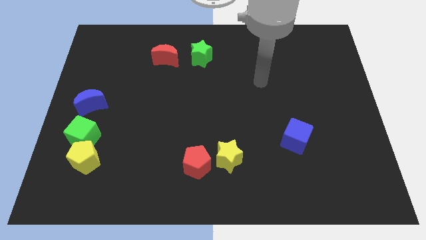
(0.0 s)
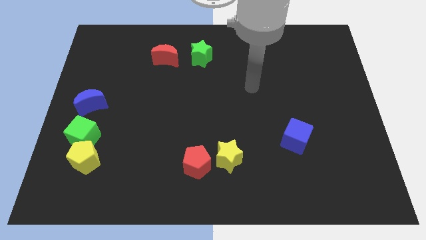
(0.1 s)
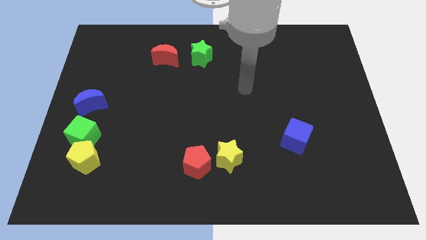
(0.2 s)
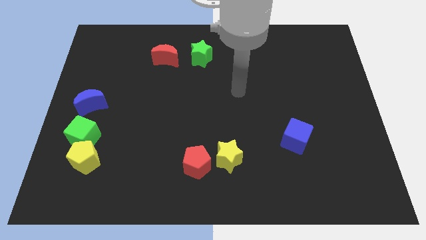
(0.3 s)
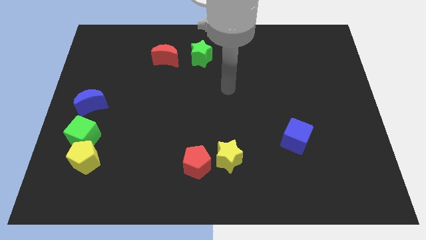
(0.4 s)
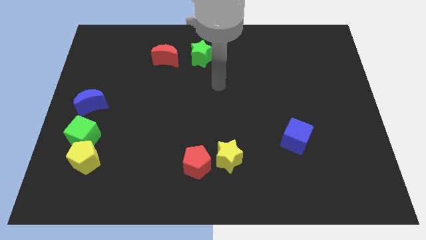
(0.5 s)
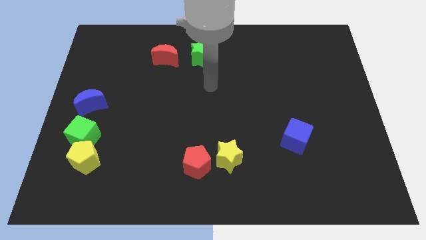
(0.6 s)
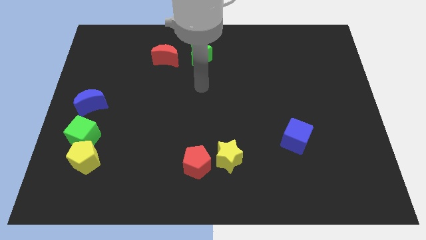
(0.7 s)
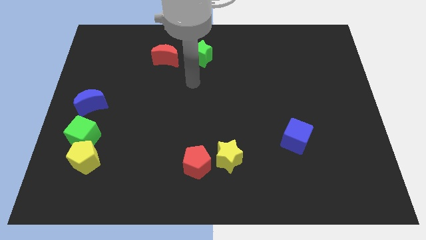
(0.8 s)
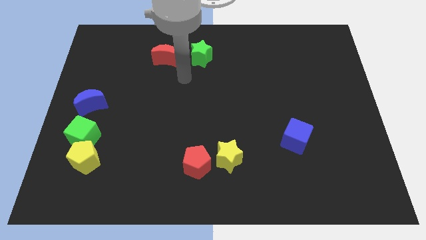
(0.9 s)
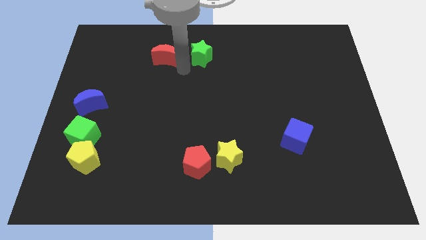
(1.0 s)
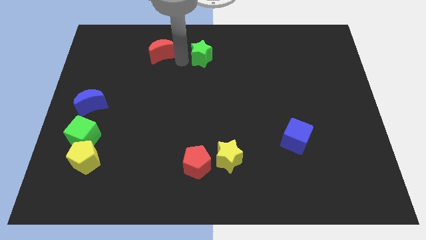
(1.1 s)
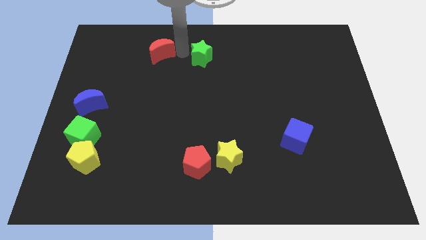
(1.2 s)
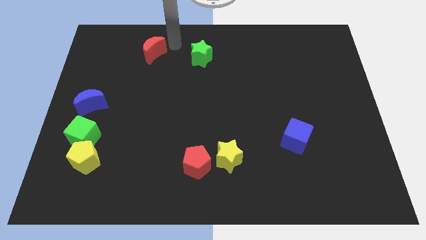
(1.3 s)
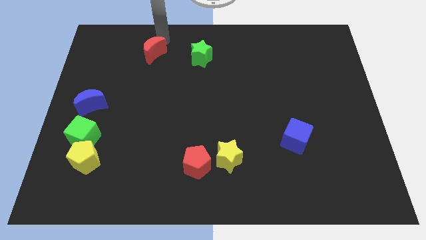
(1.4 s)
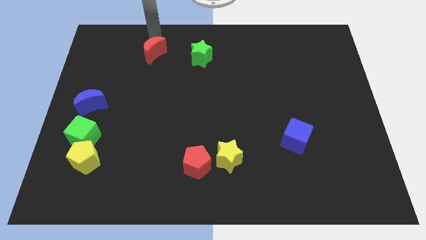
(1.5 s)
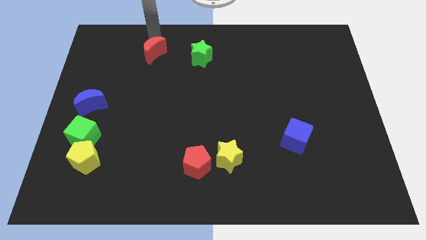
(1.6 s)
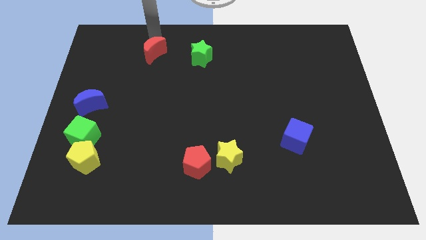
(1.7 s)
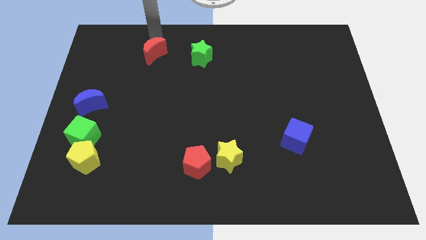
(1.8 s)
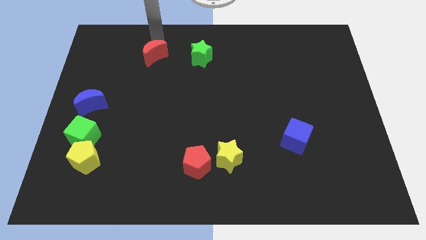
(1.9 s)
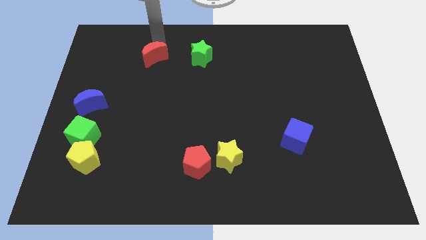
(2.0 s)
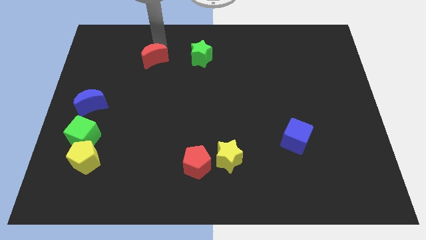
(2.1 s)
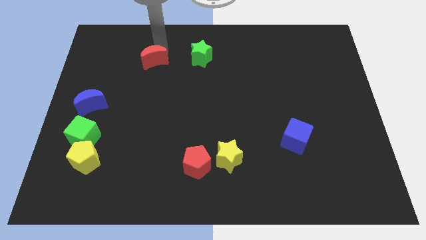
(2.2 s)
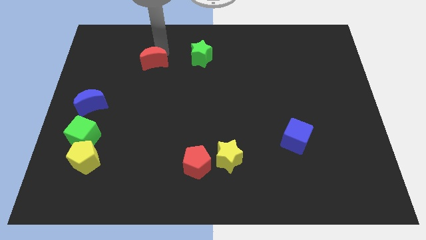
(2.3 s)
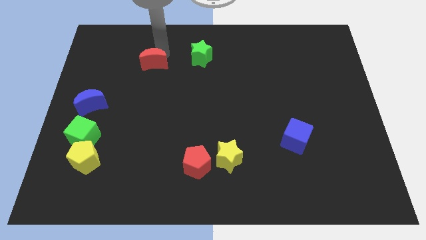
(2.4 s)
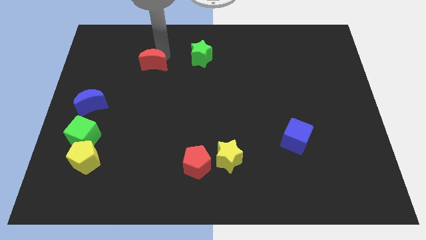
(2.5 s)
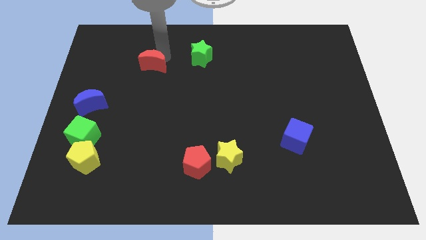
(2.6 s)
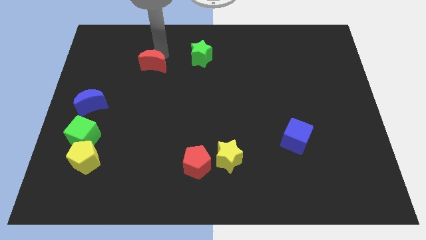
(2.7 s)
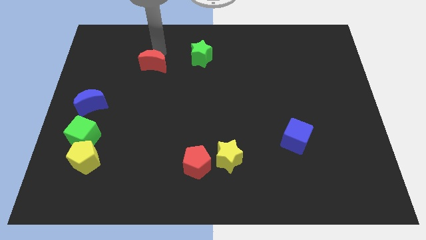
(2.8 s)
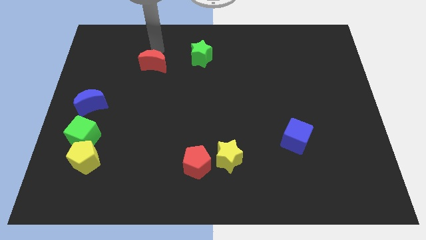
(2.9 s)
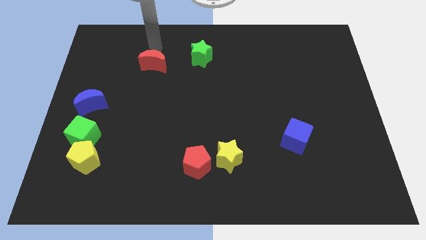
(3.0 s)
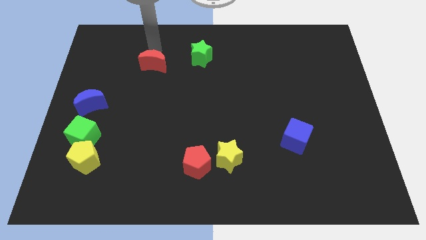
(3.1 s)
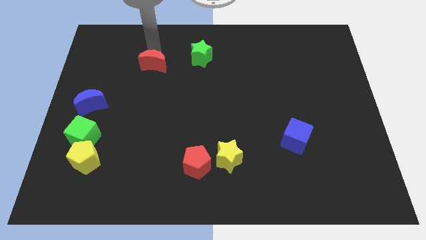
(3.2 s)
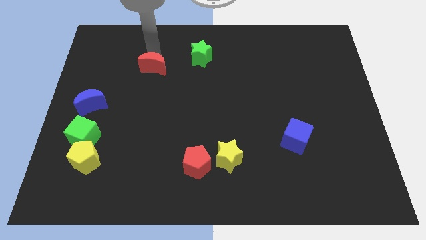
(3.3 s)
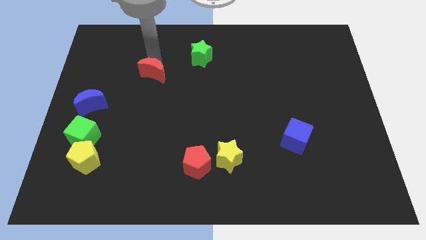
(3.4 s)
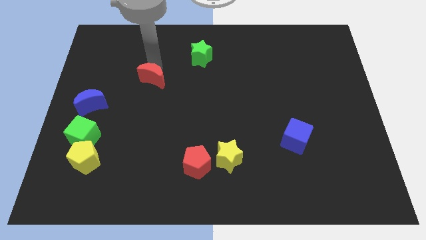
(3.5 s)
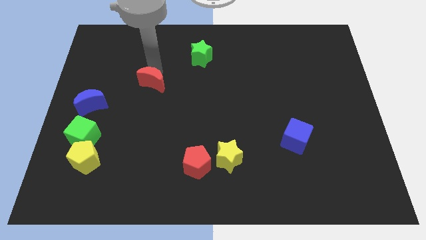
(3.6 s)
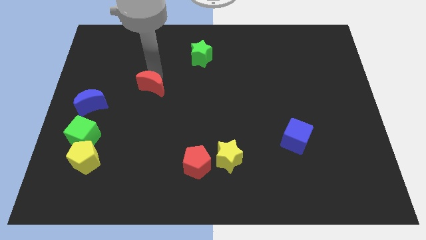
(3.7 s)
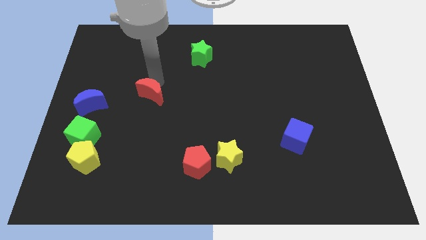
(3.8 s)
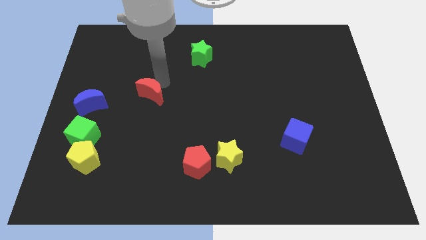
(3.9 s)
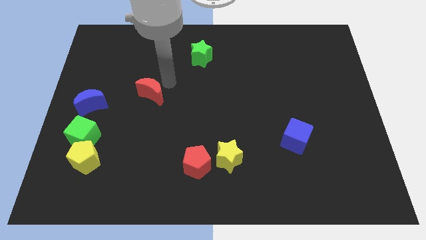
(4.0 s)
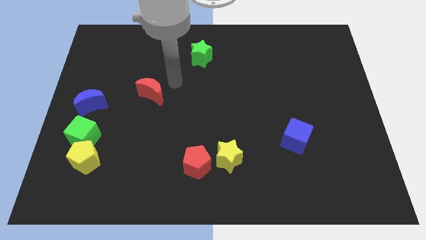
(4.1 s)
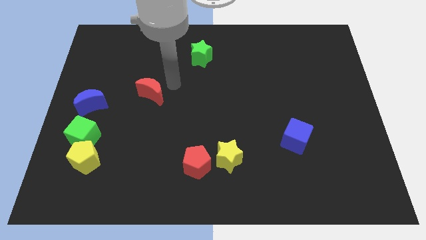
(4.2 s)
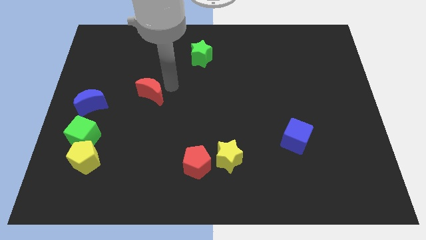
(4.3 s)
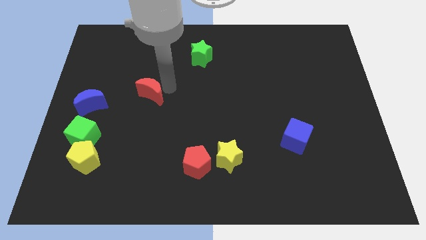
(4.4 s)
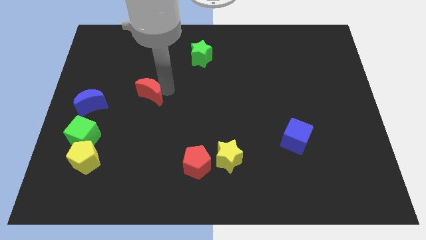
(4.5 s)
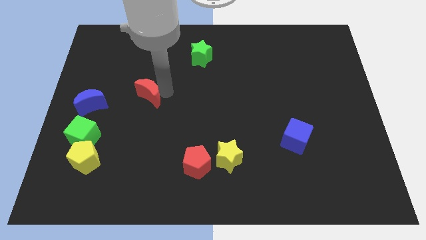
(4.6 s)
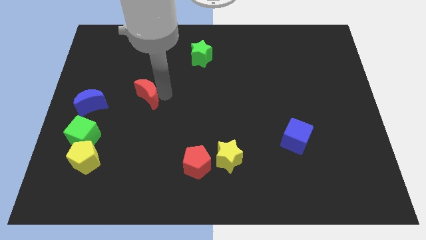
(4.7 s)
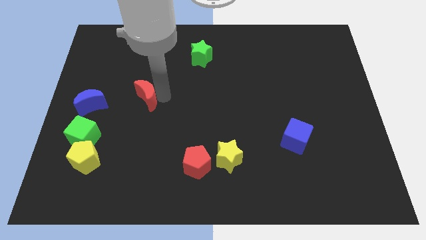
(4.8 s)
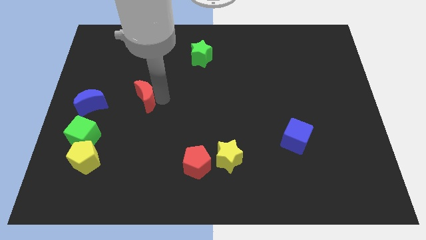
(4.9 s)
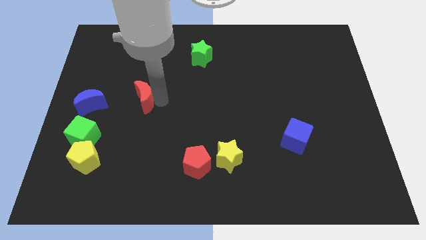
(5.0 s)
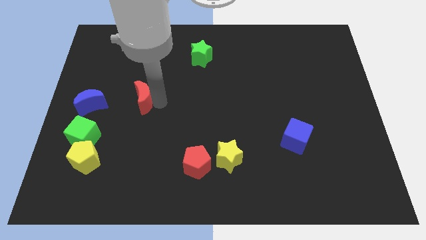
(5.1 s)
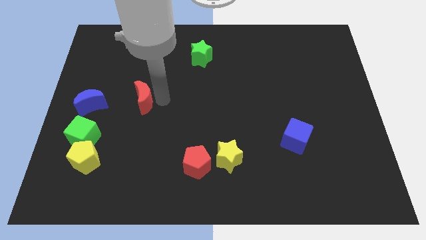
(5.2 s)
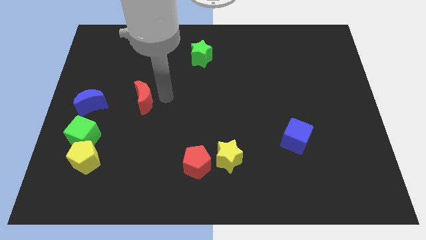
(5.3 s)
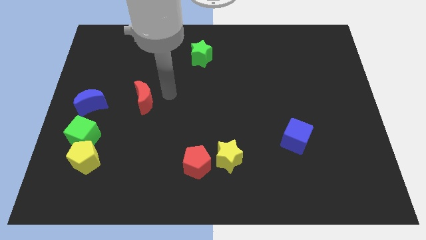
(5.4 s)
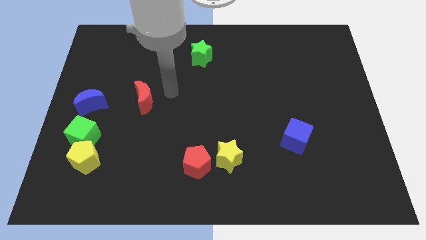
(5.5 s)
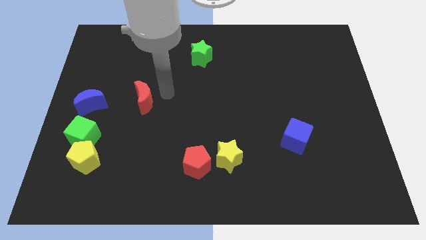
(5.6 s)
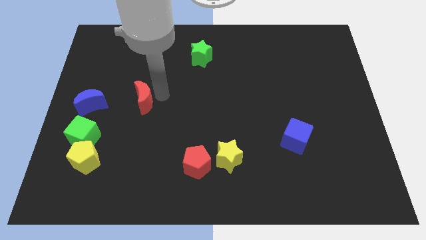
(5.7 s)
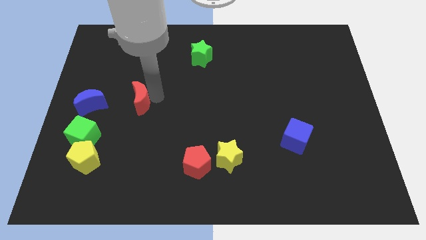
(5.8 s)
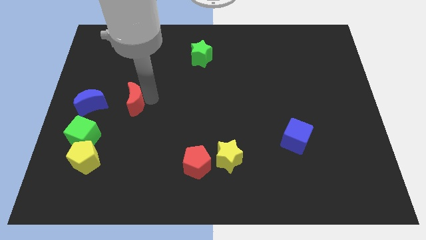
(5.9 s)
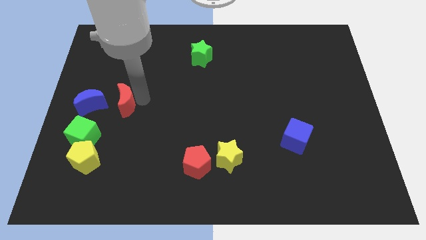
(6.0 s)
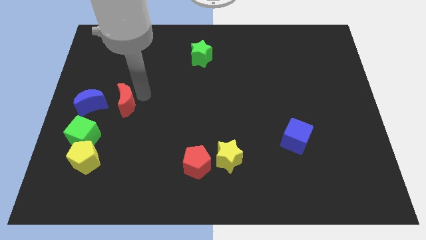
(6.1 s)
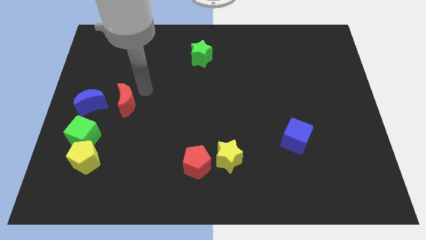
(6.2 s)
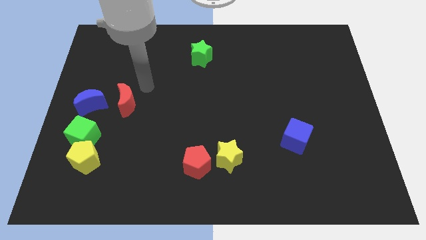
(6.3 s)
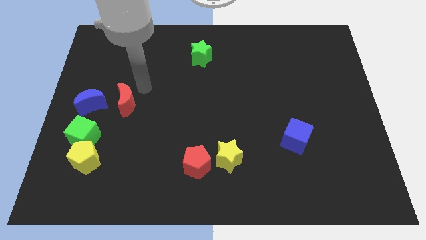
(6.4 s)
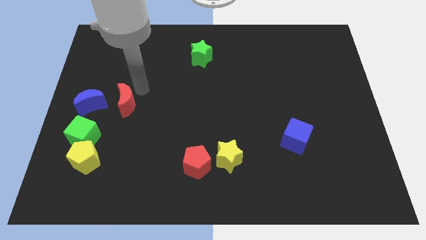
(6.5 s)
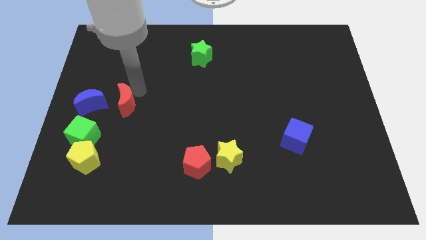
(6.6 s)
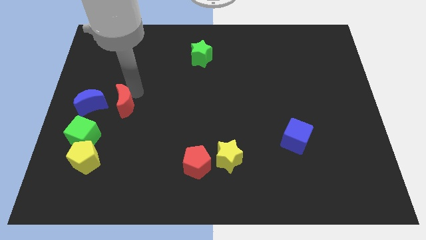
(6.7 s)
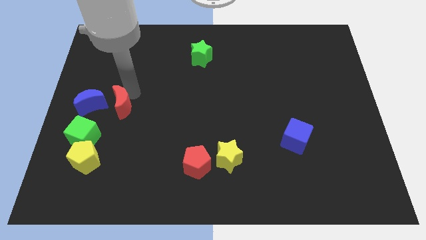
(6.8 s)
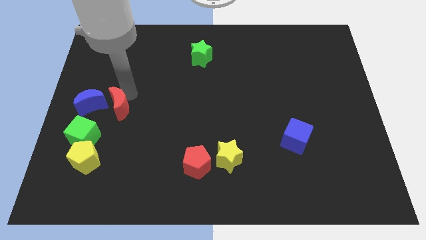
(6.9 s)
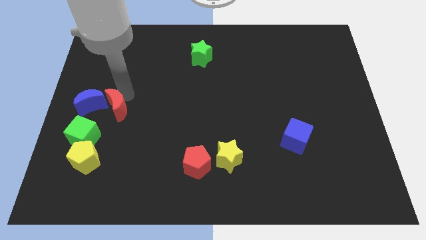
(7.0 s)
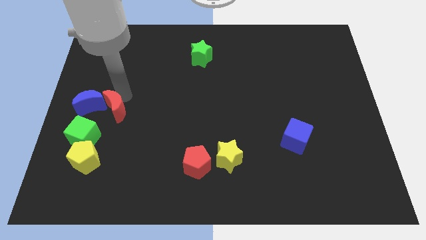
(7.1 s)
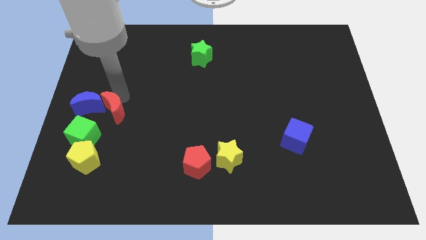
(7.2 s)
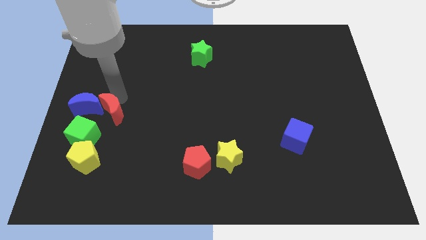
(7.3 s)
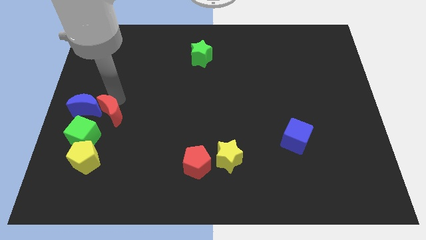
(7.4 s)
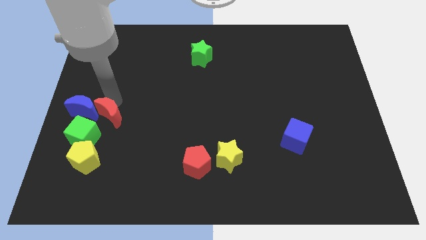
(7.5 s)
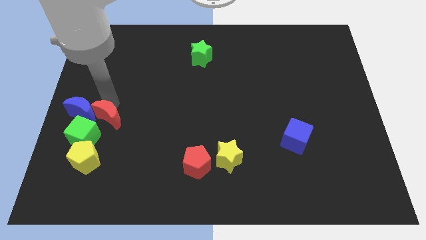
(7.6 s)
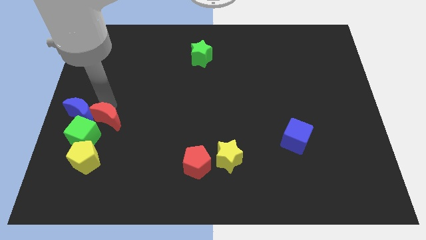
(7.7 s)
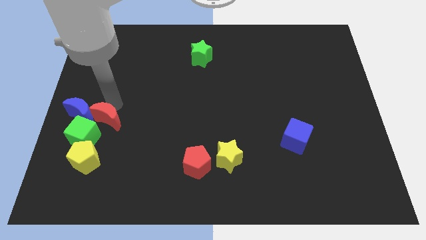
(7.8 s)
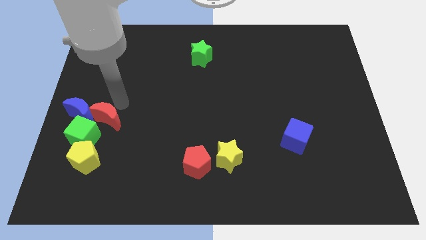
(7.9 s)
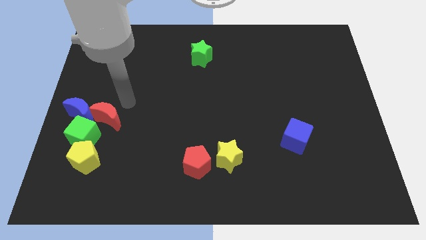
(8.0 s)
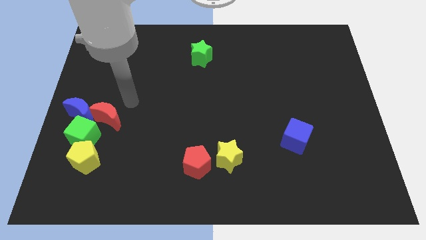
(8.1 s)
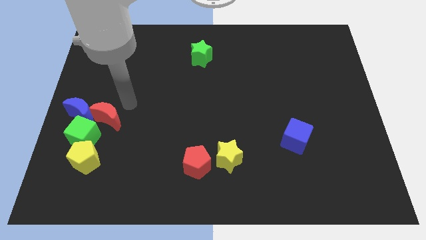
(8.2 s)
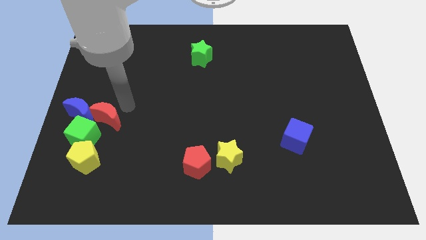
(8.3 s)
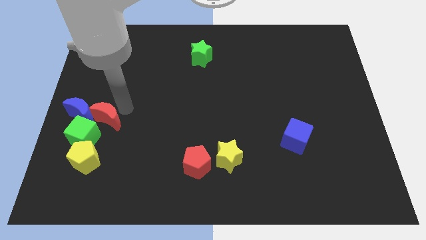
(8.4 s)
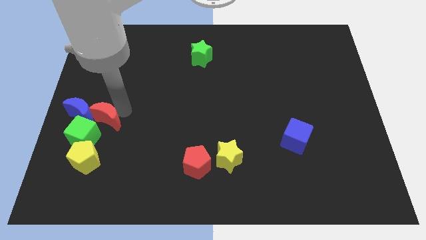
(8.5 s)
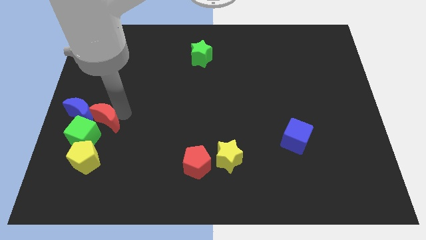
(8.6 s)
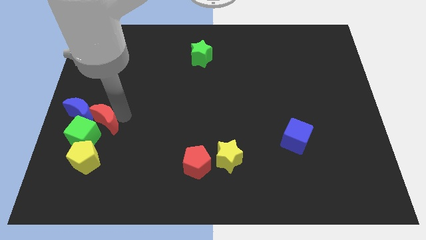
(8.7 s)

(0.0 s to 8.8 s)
slide the red moon to the green cube
